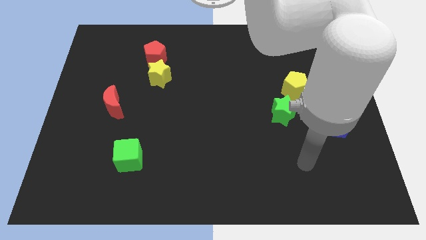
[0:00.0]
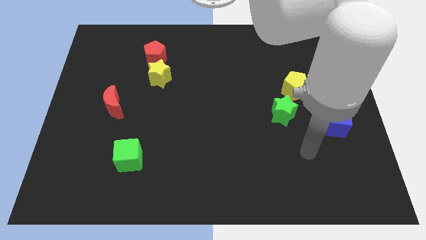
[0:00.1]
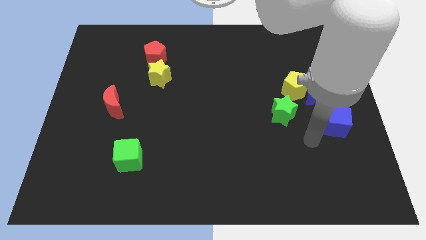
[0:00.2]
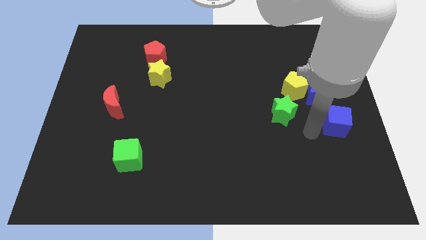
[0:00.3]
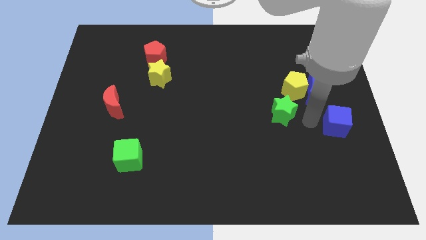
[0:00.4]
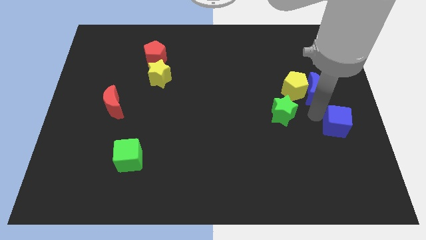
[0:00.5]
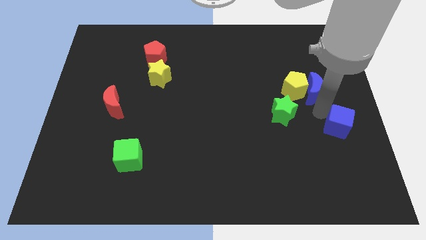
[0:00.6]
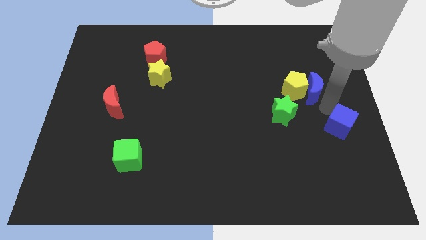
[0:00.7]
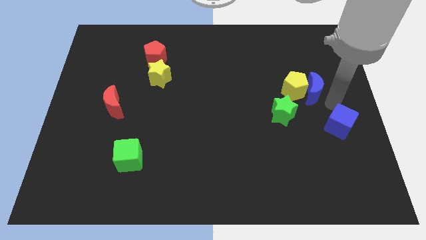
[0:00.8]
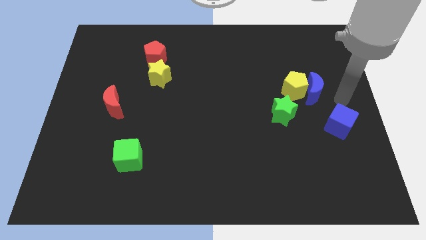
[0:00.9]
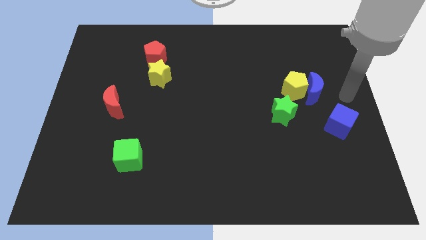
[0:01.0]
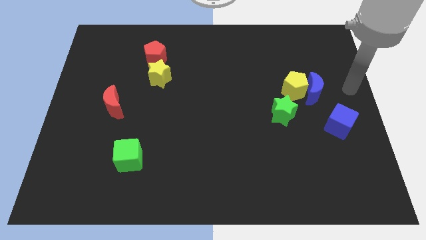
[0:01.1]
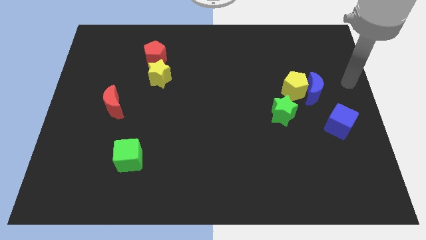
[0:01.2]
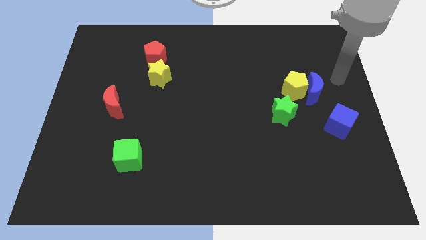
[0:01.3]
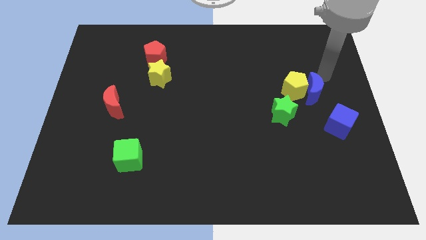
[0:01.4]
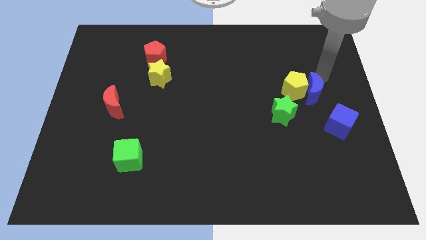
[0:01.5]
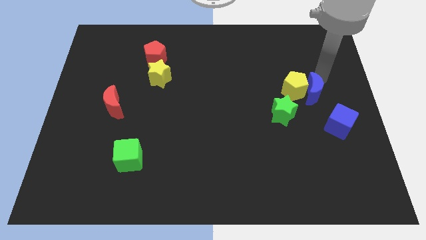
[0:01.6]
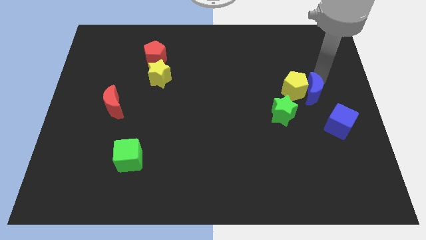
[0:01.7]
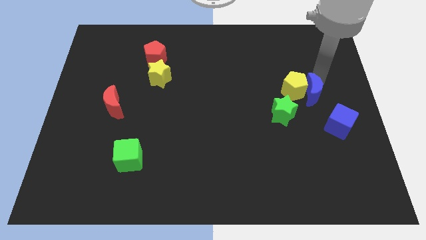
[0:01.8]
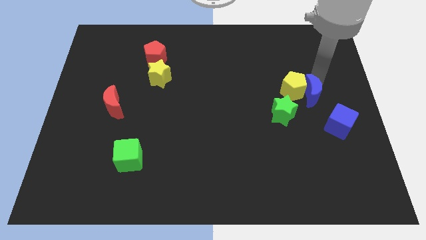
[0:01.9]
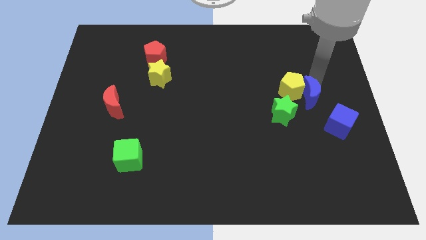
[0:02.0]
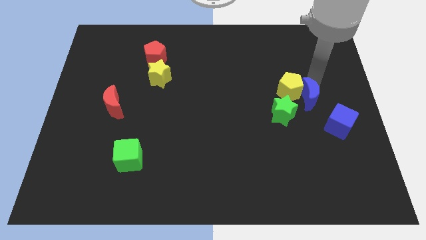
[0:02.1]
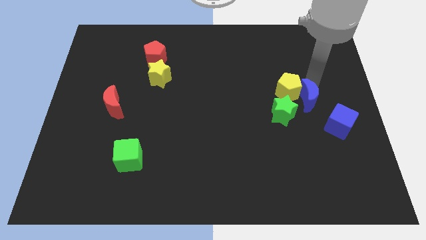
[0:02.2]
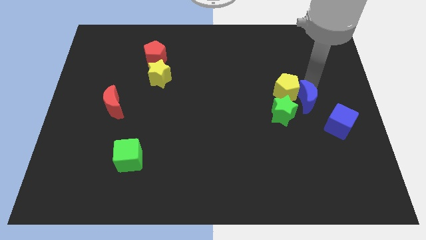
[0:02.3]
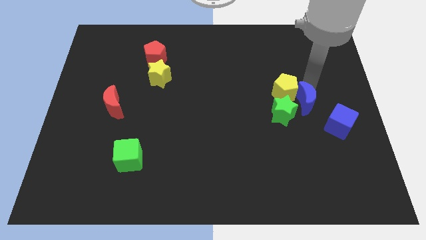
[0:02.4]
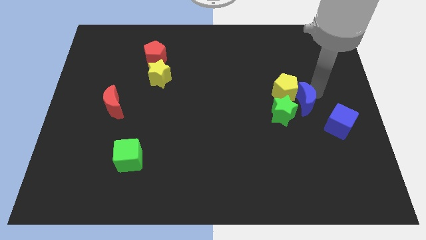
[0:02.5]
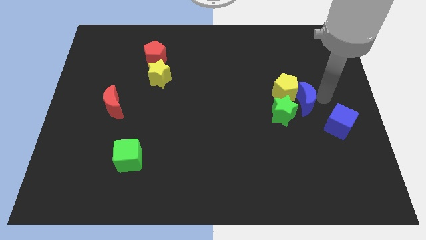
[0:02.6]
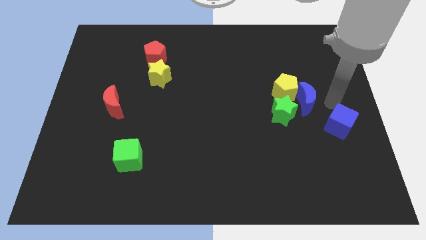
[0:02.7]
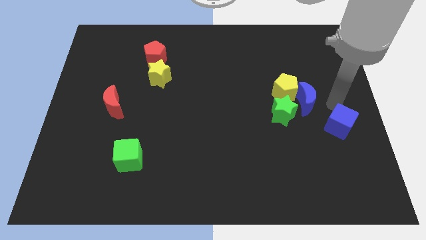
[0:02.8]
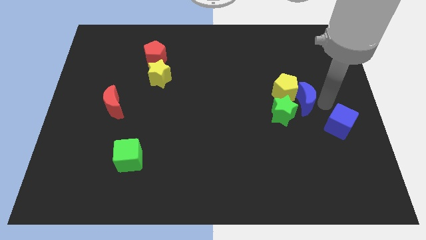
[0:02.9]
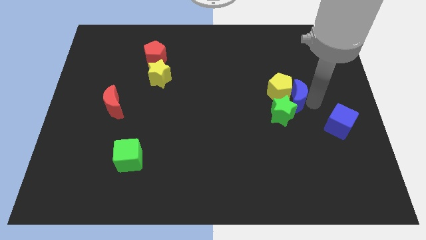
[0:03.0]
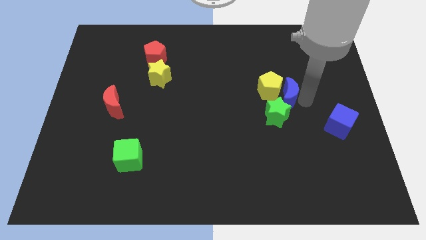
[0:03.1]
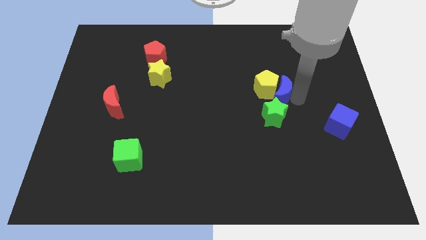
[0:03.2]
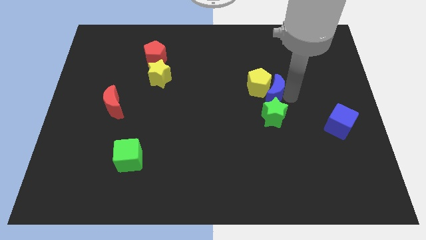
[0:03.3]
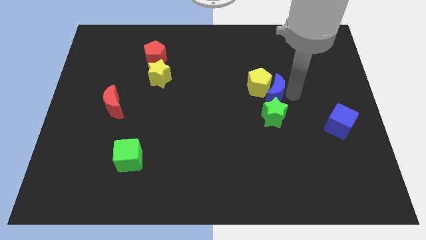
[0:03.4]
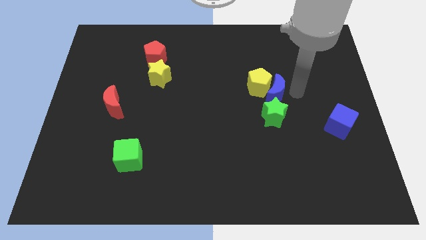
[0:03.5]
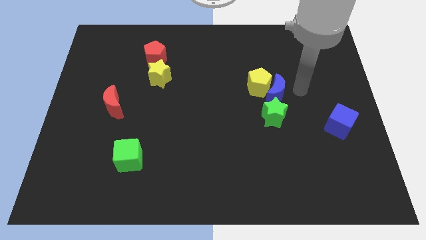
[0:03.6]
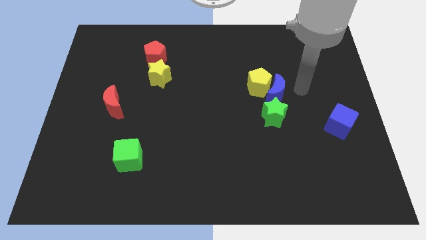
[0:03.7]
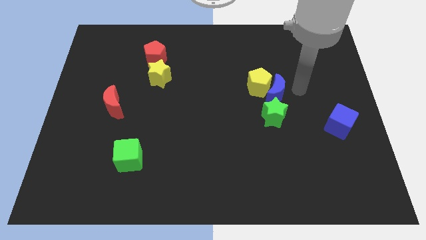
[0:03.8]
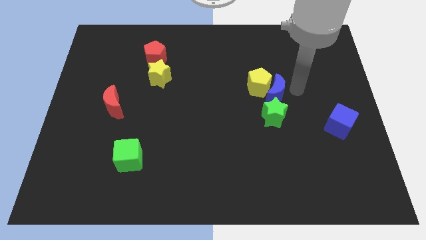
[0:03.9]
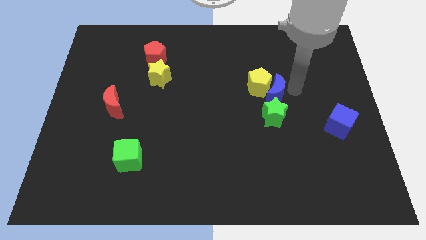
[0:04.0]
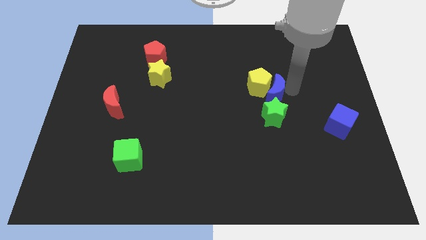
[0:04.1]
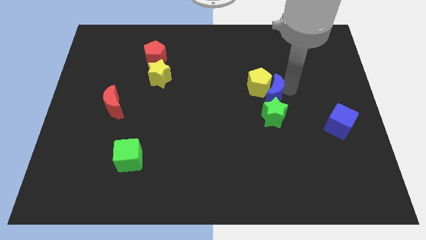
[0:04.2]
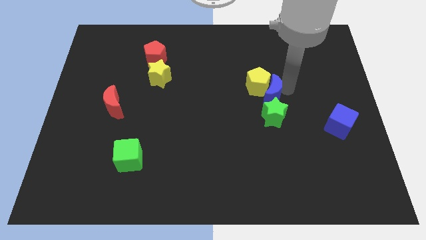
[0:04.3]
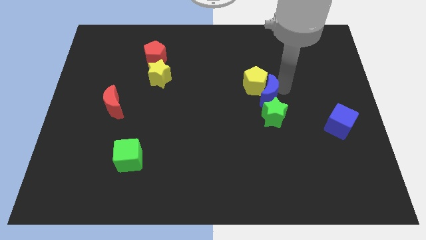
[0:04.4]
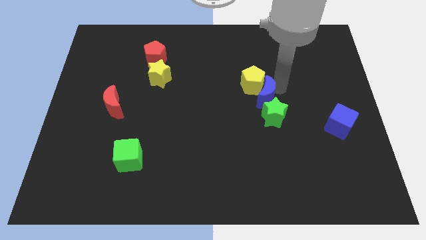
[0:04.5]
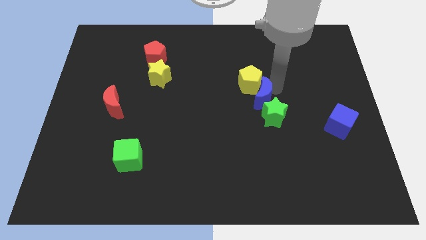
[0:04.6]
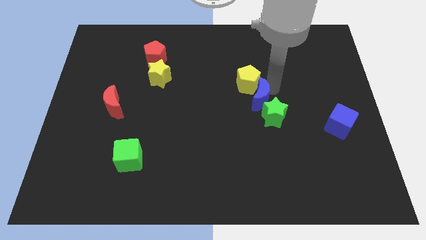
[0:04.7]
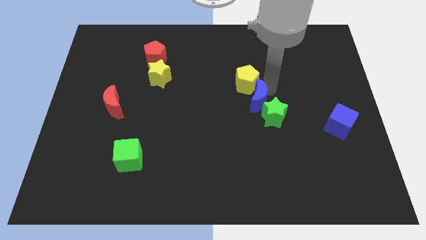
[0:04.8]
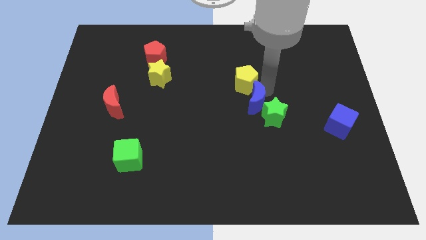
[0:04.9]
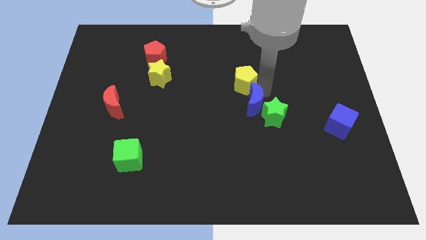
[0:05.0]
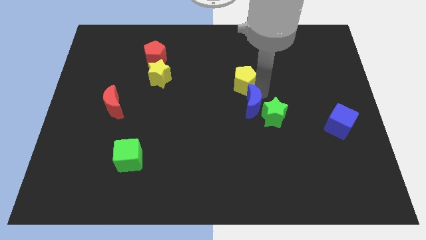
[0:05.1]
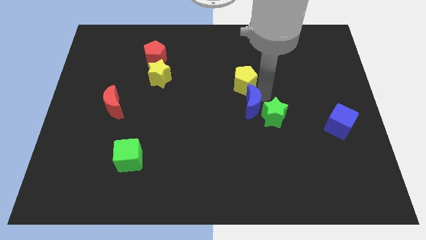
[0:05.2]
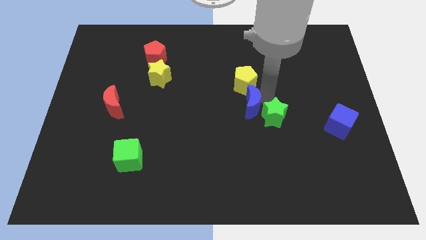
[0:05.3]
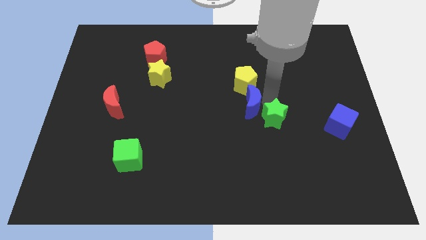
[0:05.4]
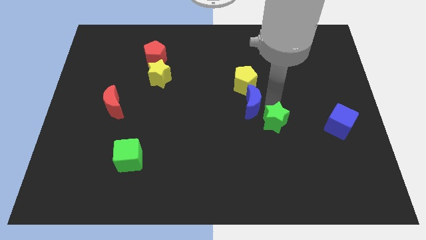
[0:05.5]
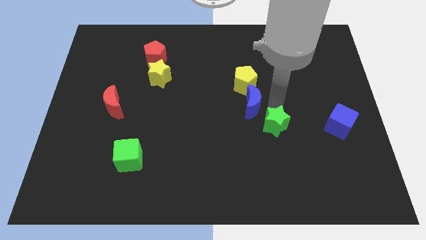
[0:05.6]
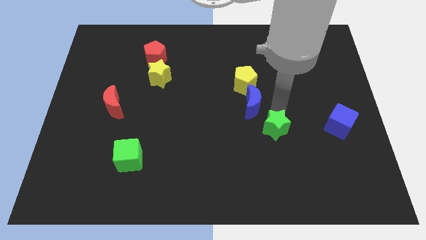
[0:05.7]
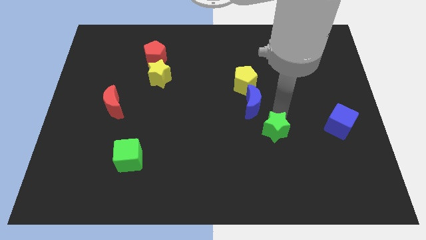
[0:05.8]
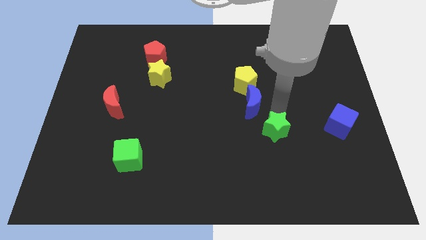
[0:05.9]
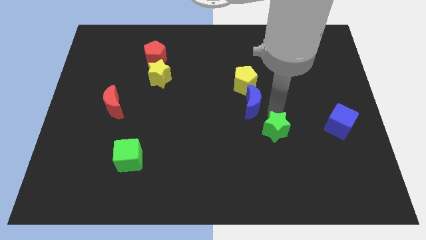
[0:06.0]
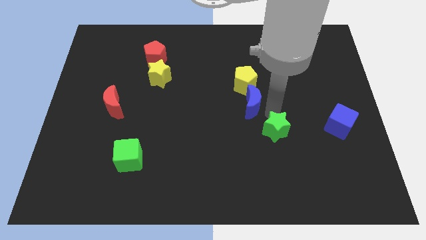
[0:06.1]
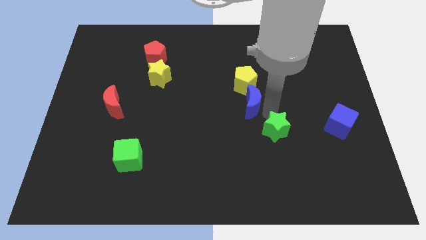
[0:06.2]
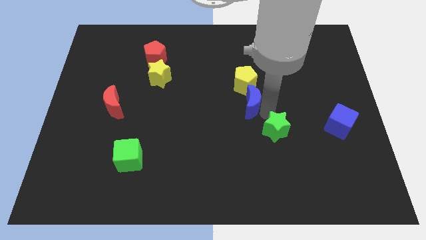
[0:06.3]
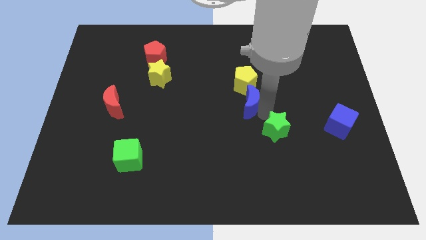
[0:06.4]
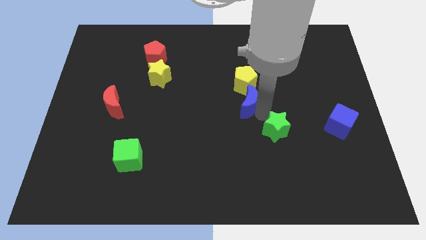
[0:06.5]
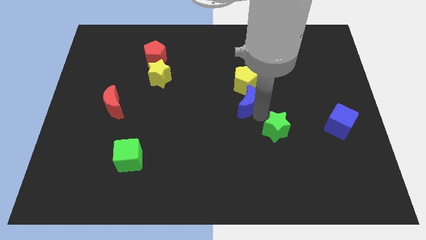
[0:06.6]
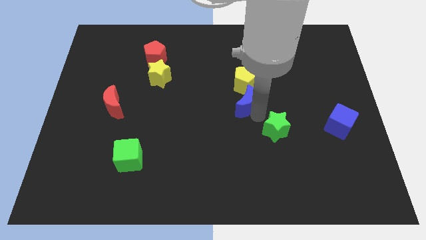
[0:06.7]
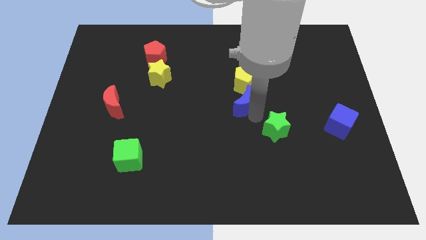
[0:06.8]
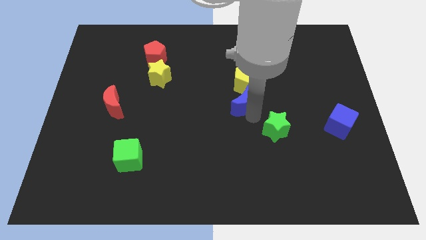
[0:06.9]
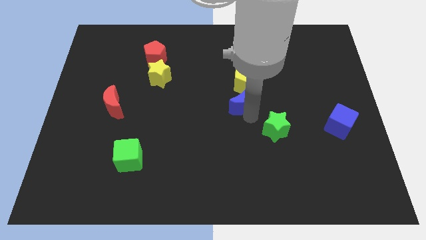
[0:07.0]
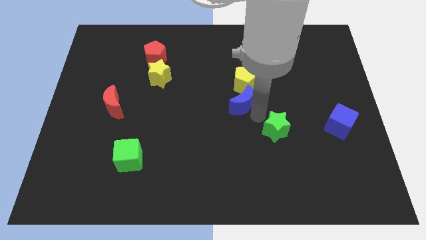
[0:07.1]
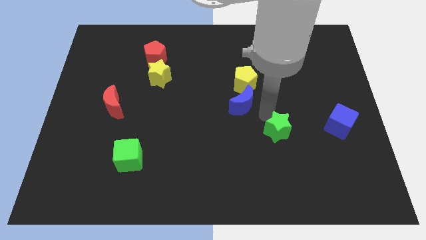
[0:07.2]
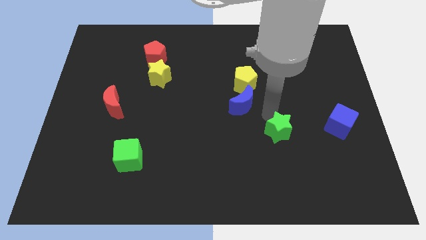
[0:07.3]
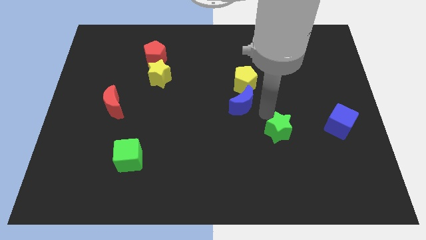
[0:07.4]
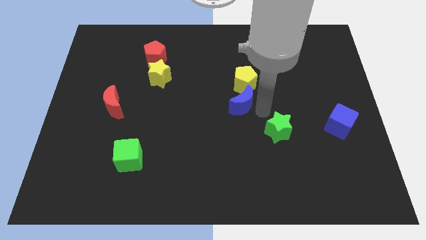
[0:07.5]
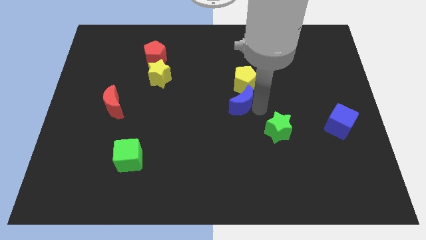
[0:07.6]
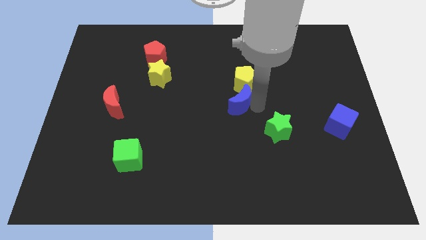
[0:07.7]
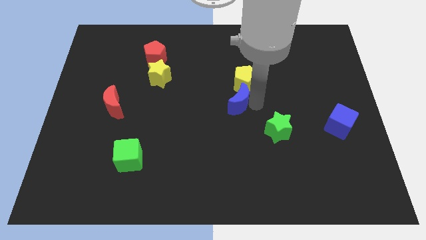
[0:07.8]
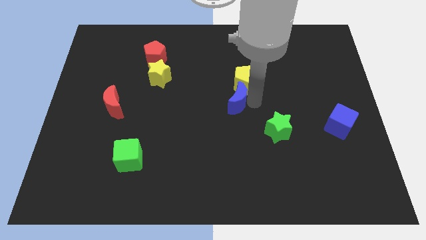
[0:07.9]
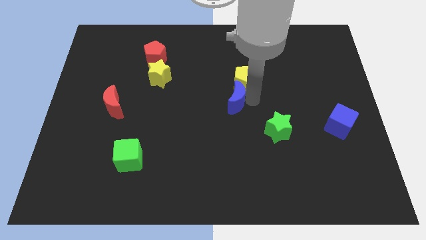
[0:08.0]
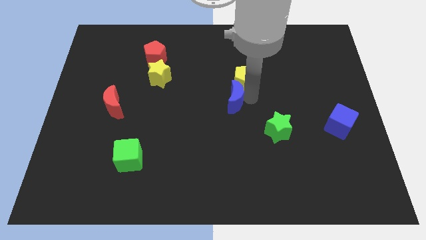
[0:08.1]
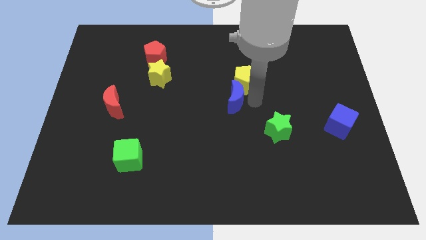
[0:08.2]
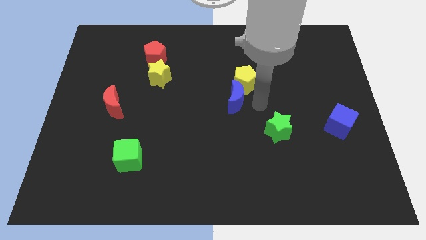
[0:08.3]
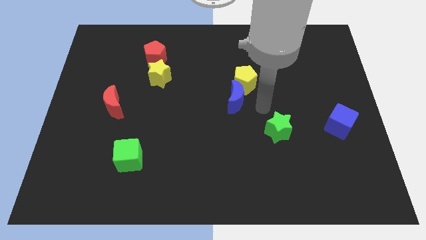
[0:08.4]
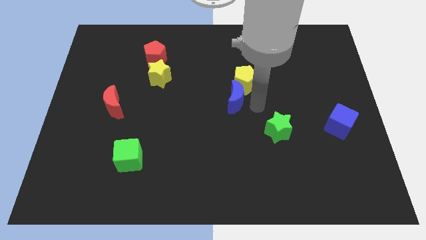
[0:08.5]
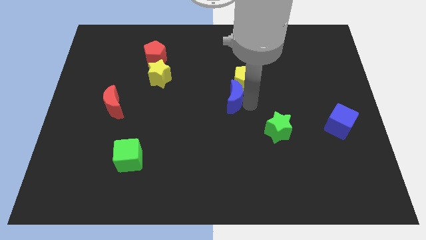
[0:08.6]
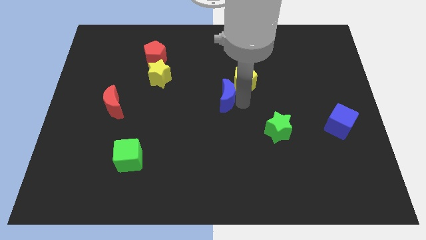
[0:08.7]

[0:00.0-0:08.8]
move the blue moon to the left
